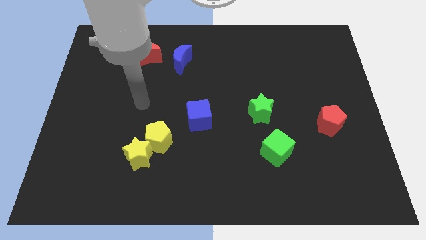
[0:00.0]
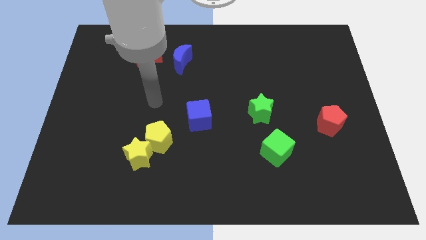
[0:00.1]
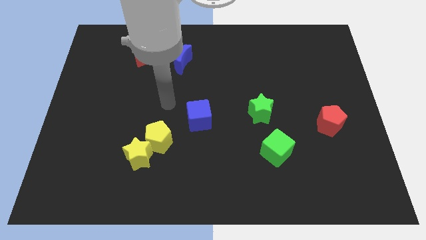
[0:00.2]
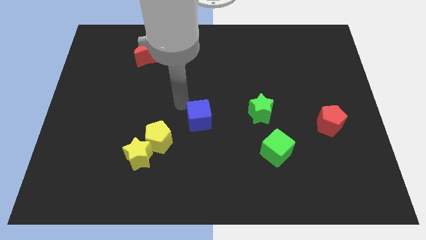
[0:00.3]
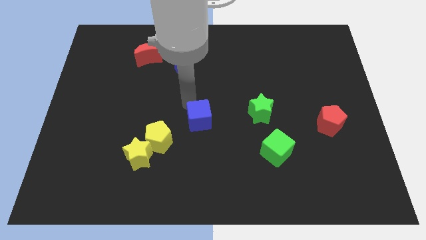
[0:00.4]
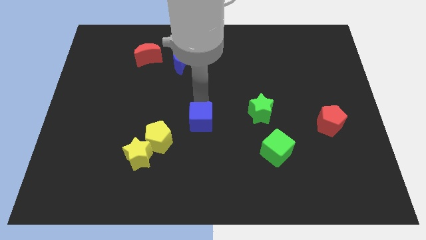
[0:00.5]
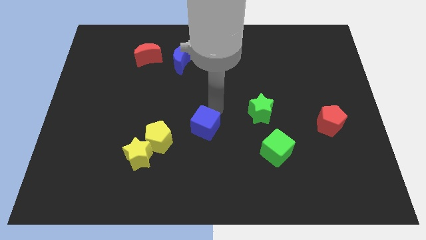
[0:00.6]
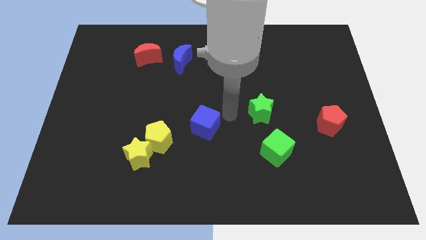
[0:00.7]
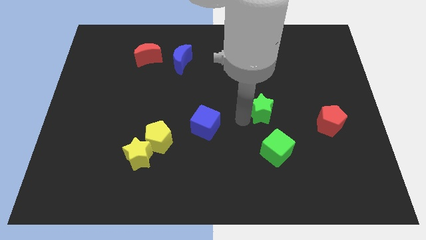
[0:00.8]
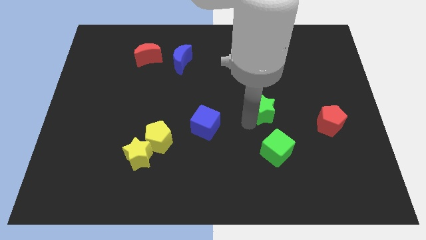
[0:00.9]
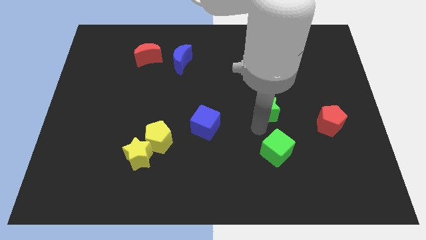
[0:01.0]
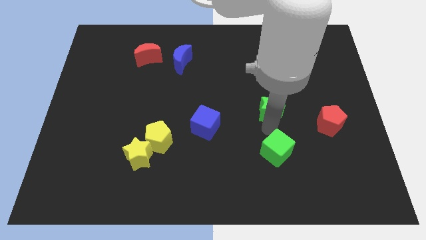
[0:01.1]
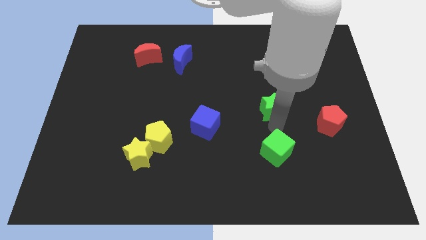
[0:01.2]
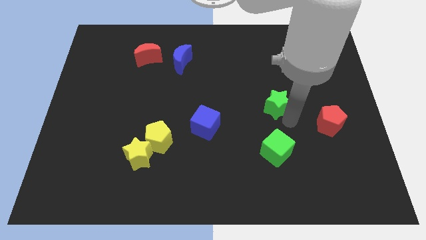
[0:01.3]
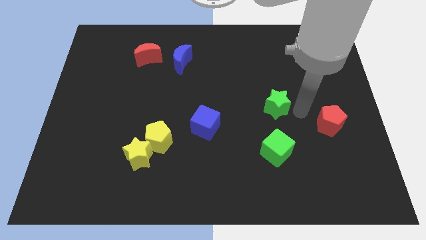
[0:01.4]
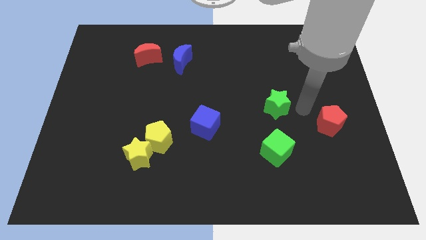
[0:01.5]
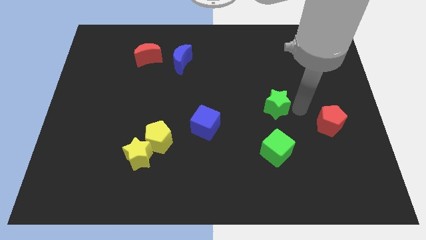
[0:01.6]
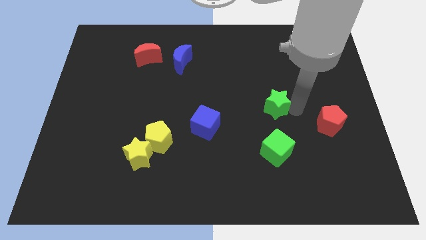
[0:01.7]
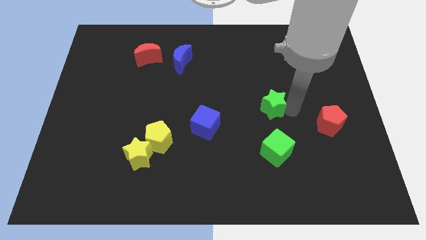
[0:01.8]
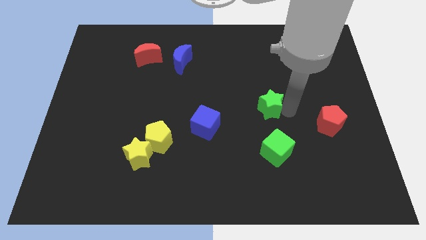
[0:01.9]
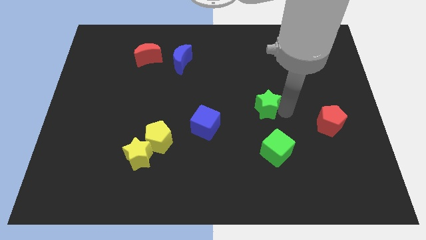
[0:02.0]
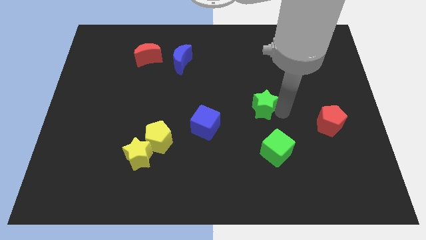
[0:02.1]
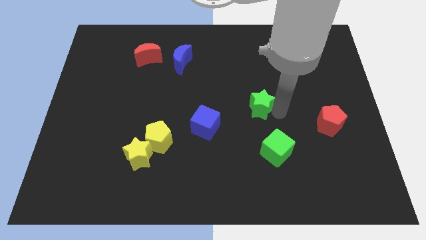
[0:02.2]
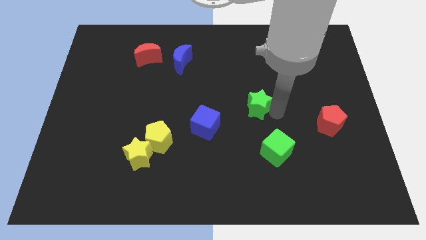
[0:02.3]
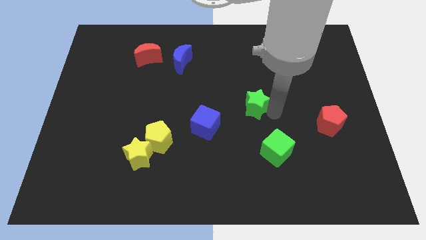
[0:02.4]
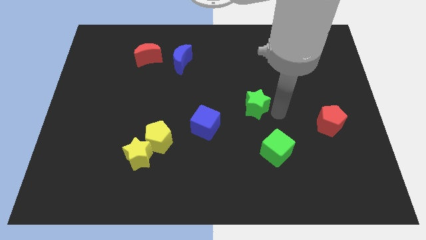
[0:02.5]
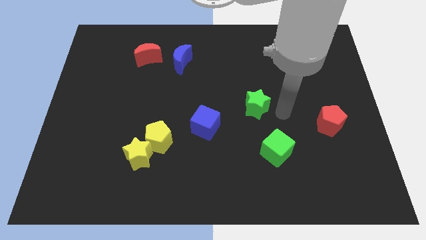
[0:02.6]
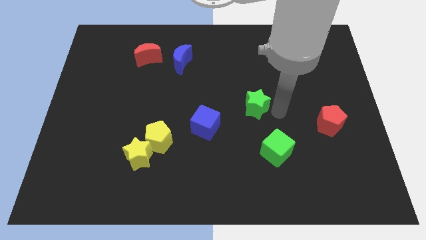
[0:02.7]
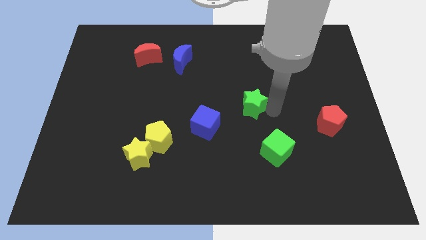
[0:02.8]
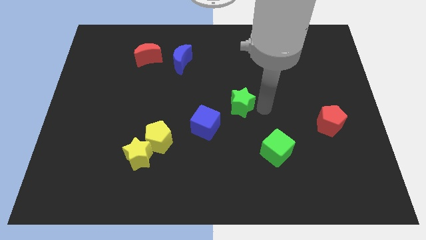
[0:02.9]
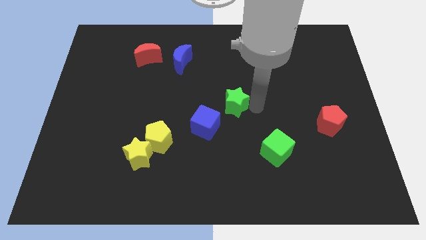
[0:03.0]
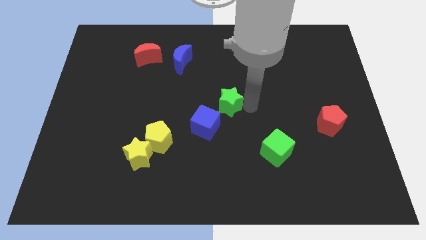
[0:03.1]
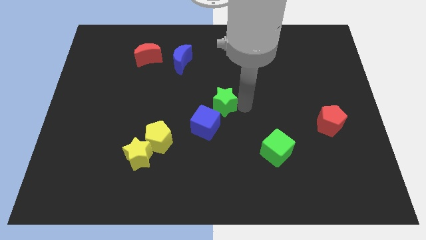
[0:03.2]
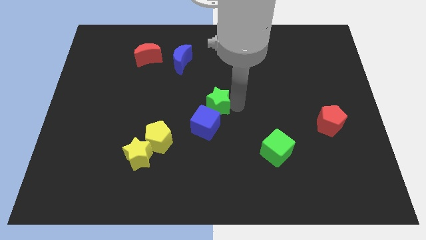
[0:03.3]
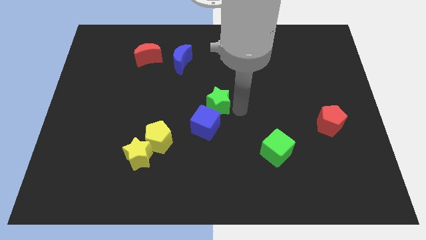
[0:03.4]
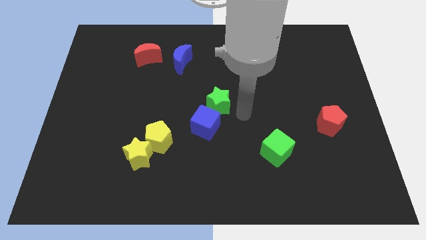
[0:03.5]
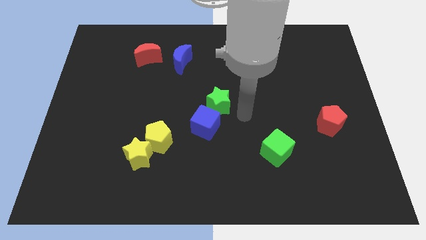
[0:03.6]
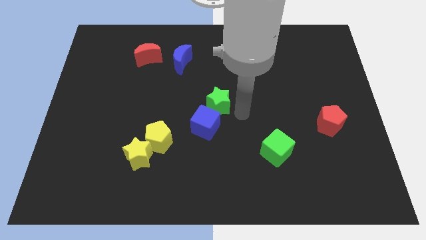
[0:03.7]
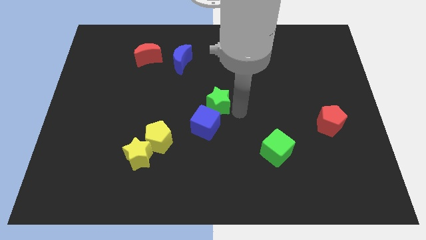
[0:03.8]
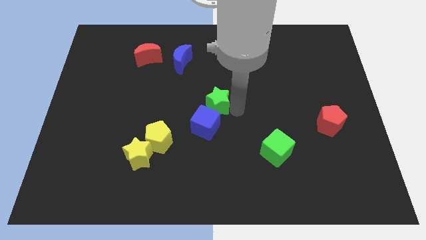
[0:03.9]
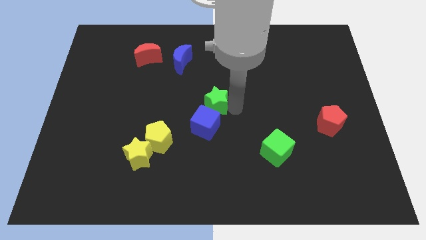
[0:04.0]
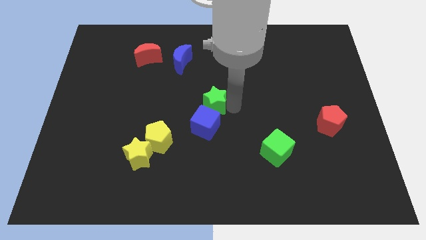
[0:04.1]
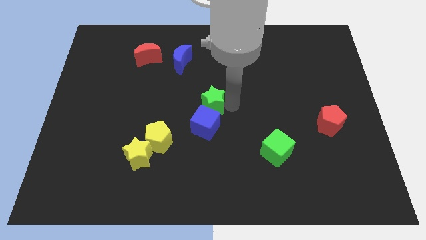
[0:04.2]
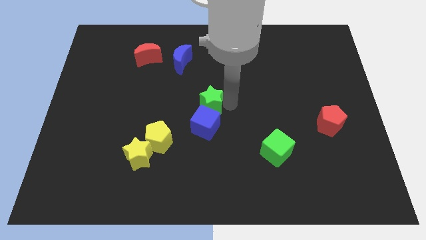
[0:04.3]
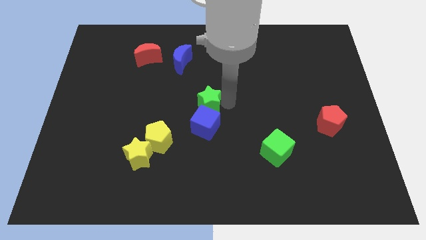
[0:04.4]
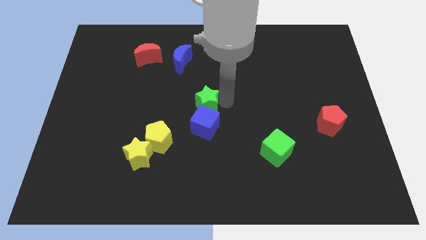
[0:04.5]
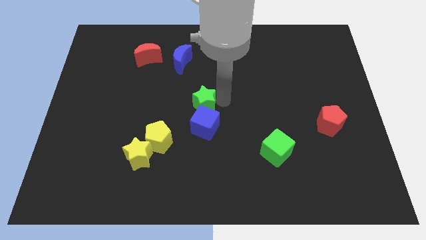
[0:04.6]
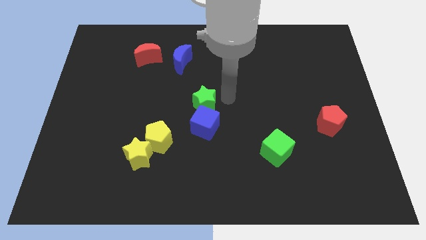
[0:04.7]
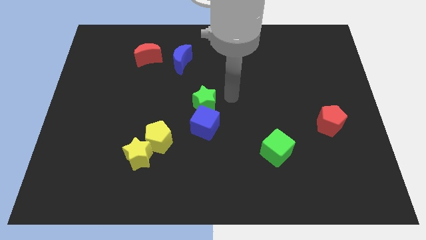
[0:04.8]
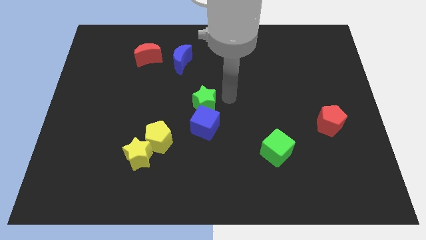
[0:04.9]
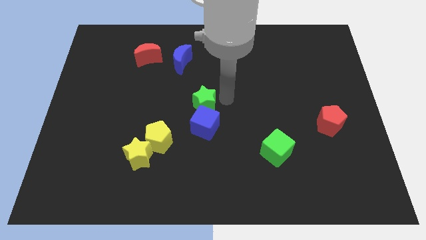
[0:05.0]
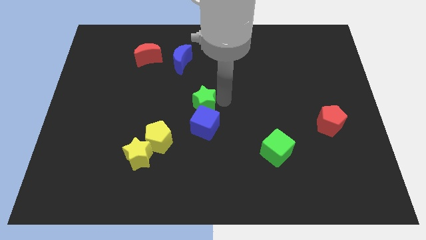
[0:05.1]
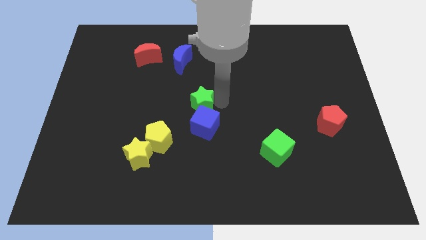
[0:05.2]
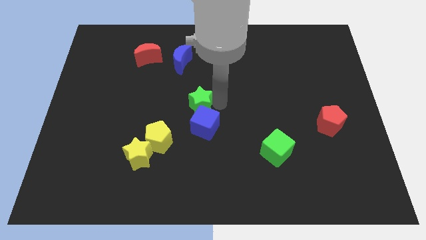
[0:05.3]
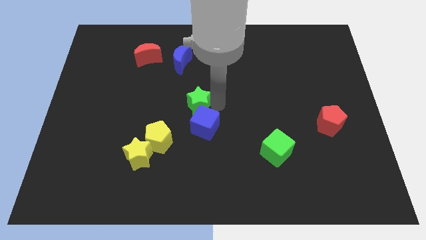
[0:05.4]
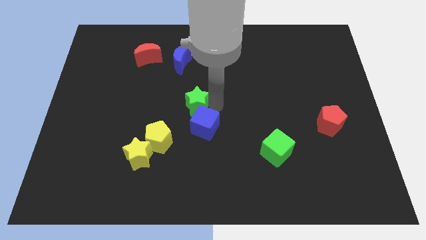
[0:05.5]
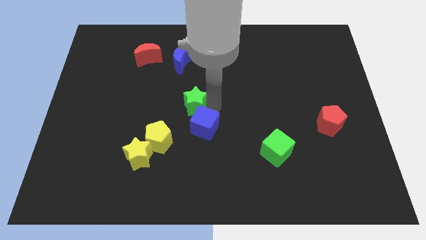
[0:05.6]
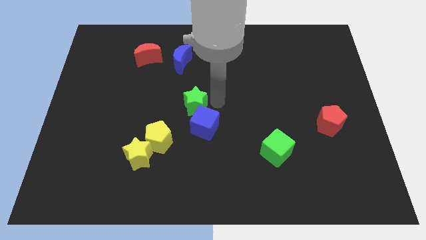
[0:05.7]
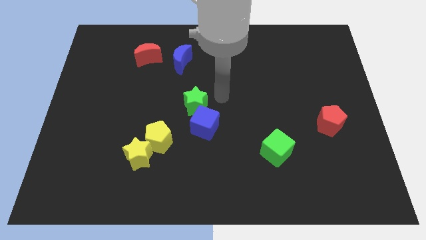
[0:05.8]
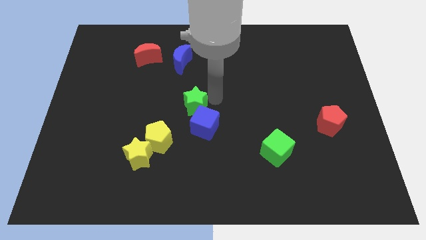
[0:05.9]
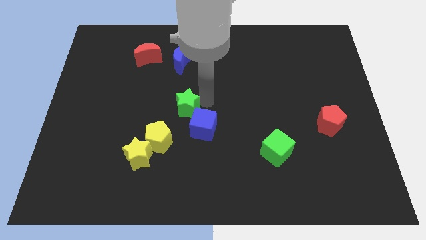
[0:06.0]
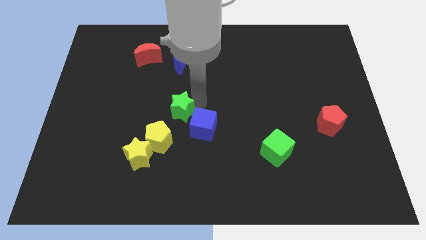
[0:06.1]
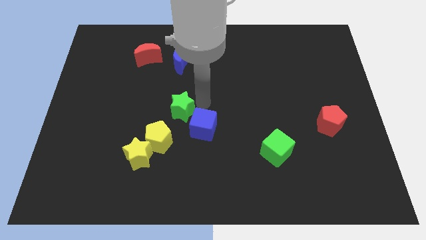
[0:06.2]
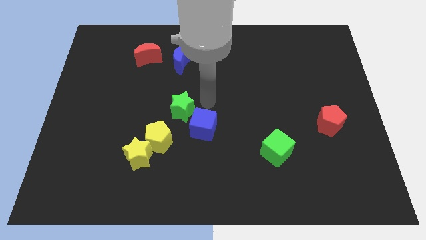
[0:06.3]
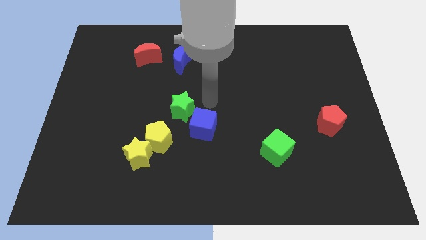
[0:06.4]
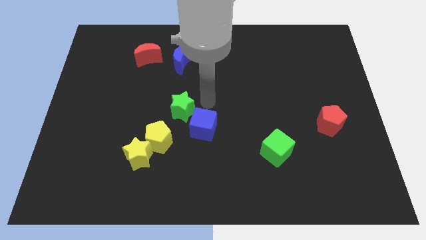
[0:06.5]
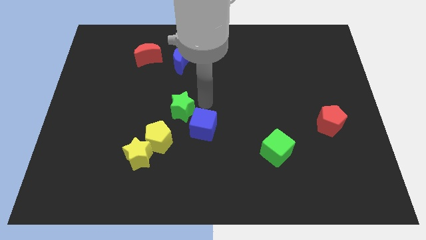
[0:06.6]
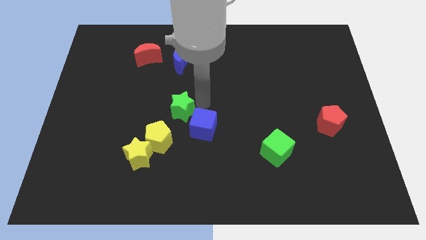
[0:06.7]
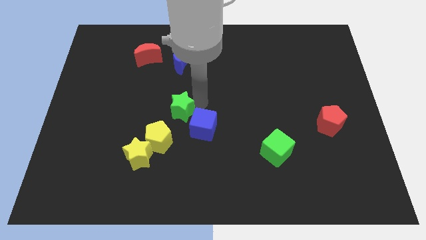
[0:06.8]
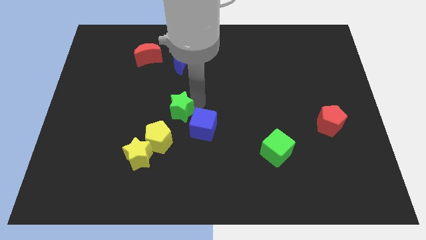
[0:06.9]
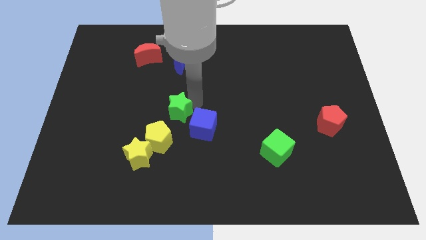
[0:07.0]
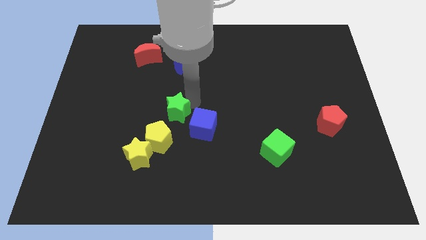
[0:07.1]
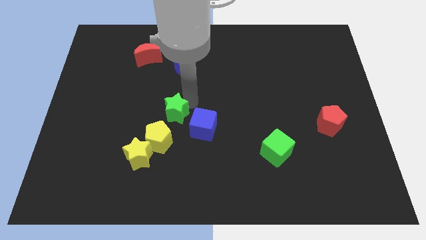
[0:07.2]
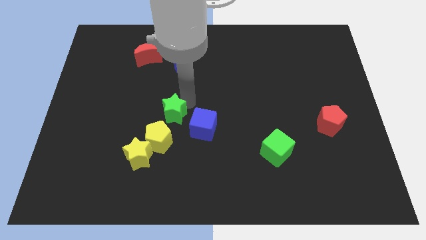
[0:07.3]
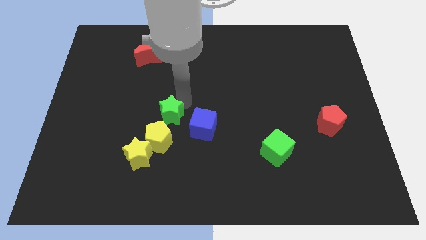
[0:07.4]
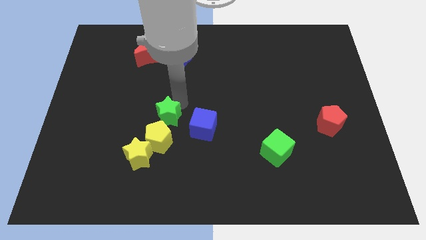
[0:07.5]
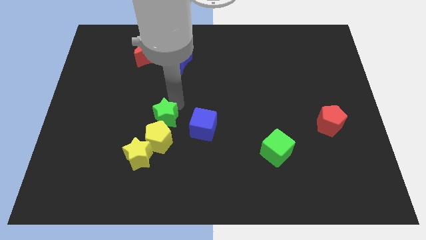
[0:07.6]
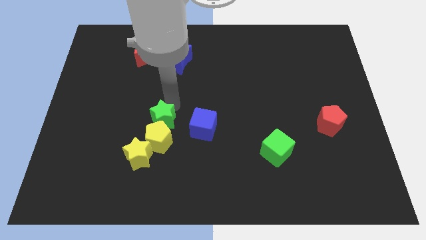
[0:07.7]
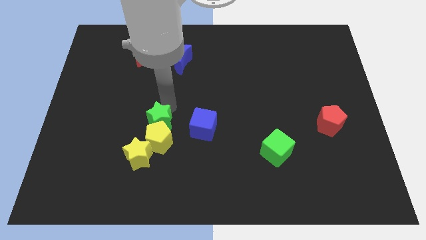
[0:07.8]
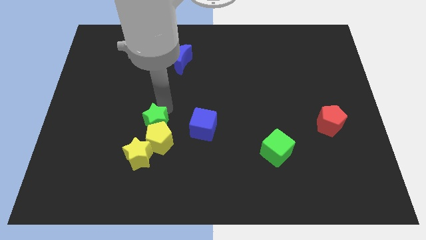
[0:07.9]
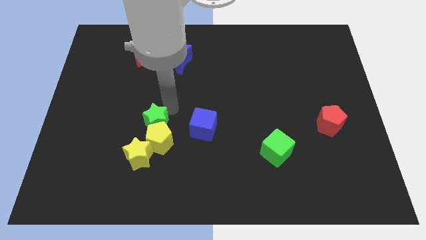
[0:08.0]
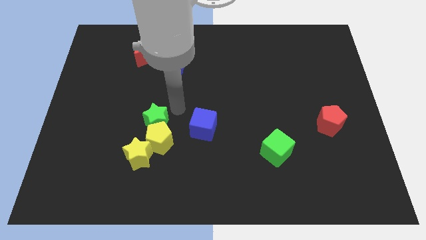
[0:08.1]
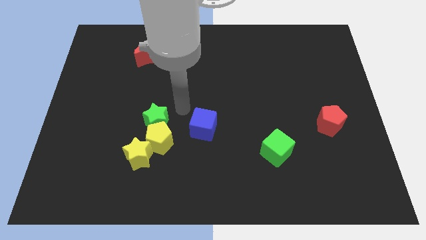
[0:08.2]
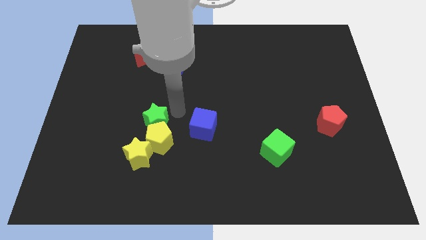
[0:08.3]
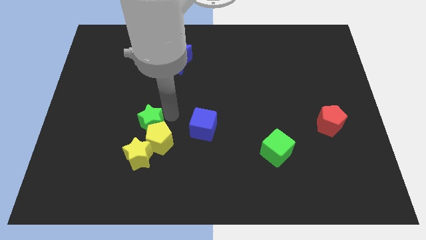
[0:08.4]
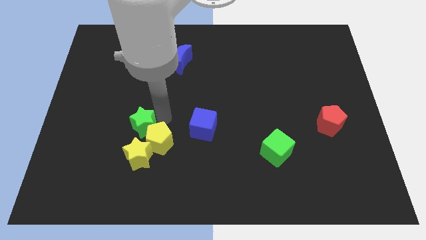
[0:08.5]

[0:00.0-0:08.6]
push the green star left of the yellow pentagon
